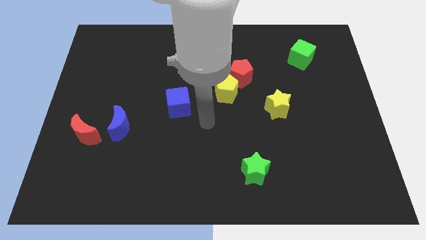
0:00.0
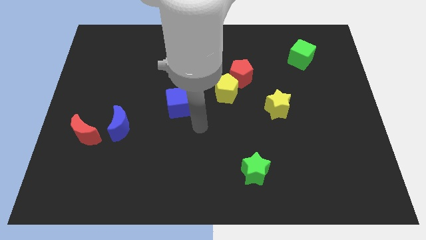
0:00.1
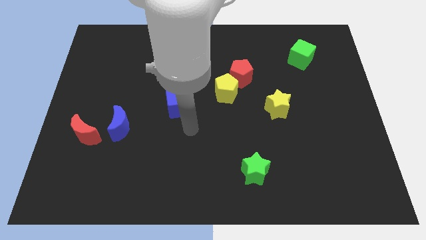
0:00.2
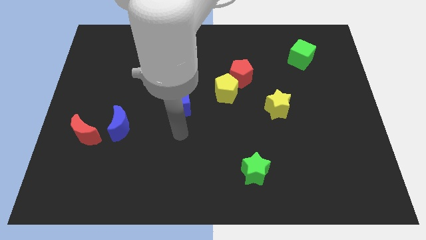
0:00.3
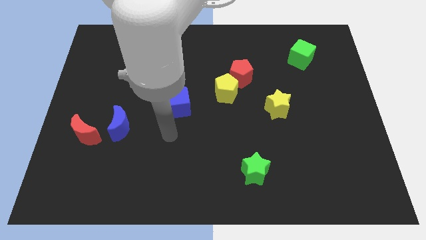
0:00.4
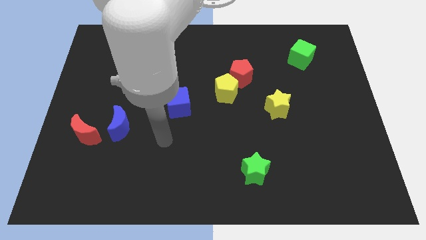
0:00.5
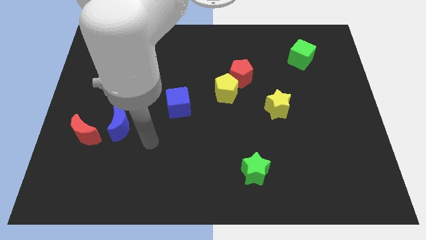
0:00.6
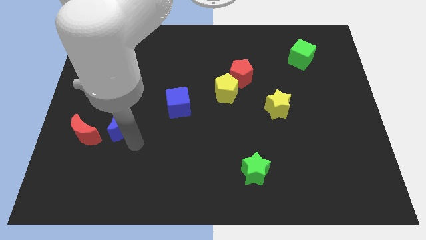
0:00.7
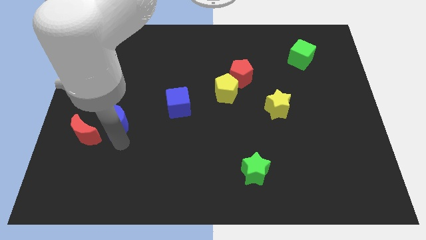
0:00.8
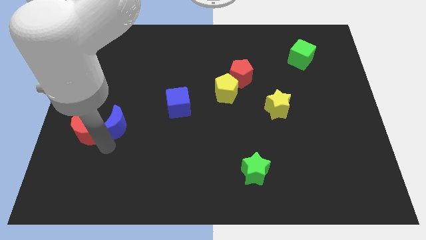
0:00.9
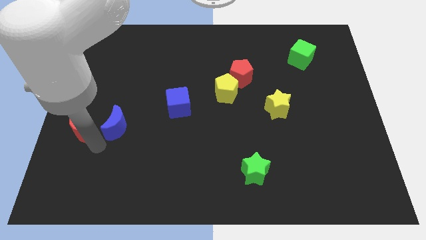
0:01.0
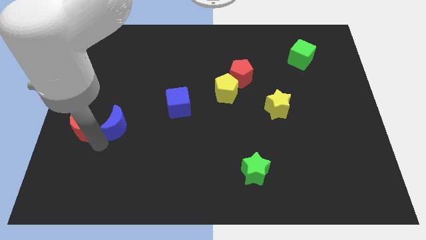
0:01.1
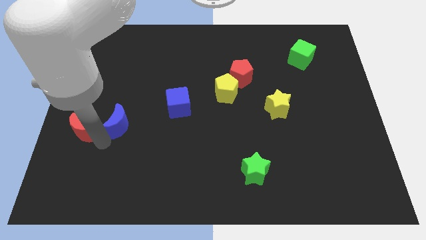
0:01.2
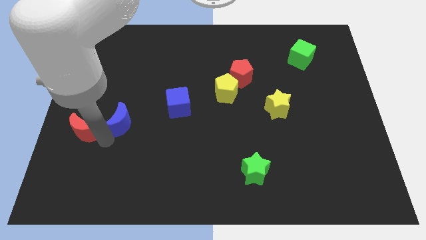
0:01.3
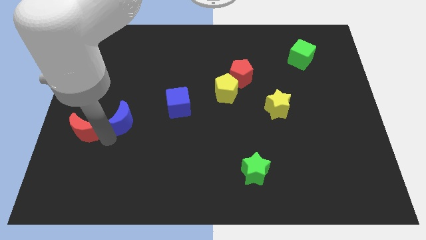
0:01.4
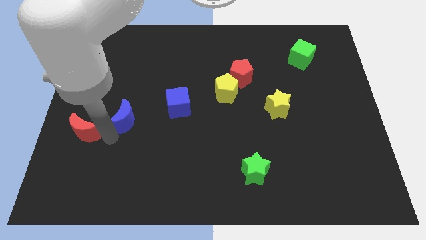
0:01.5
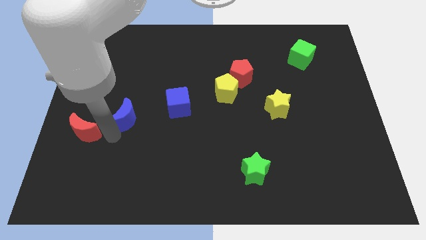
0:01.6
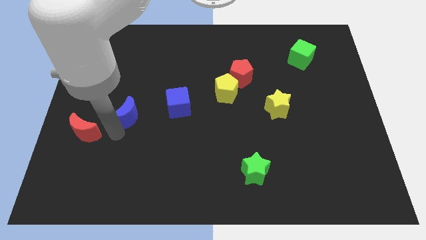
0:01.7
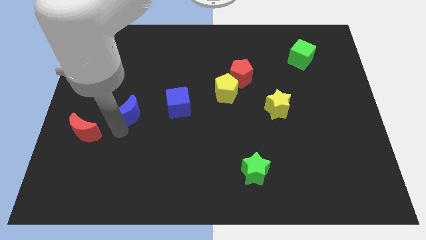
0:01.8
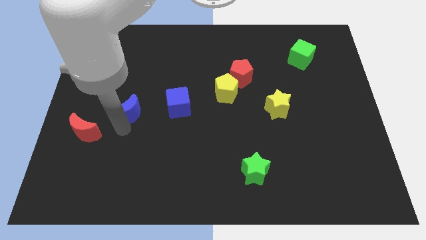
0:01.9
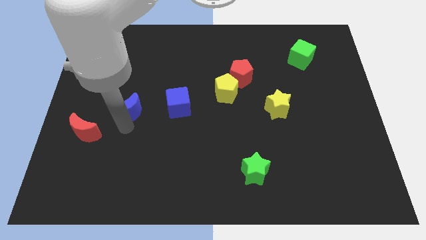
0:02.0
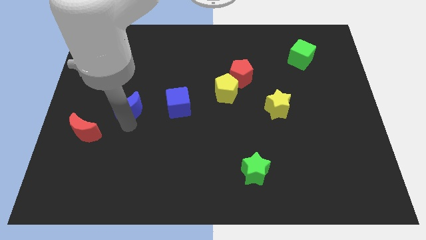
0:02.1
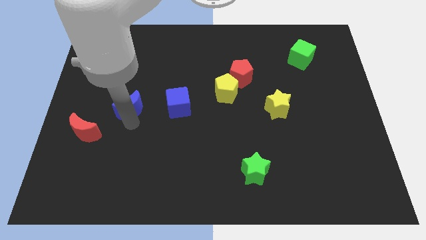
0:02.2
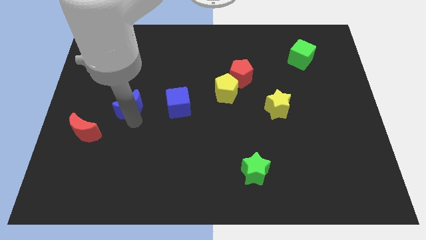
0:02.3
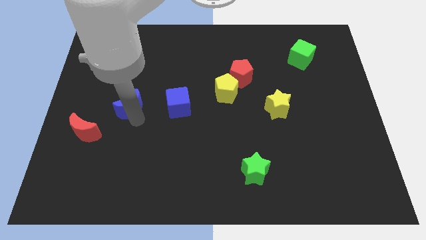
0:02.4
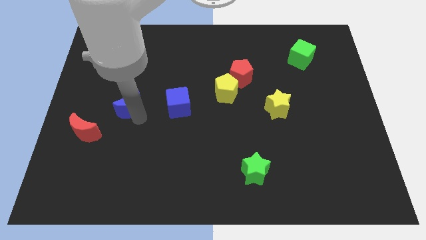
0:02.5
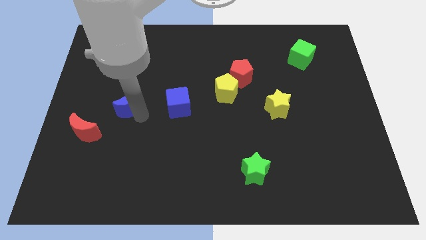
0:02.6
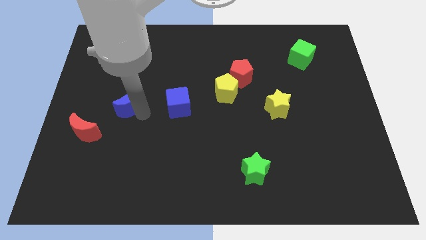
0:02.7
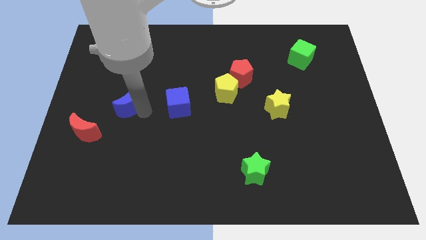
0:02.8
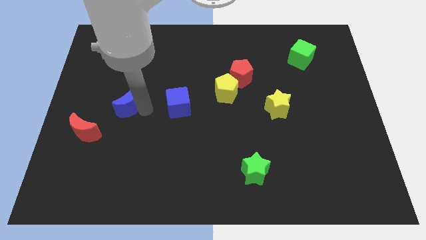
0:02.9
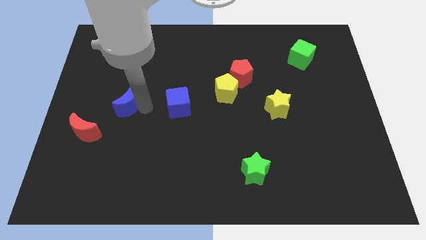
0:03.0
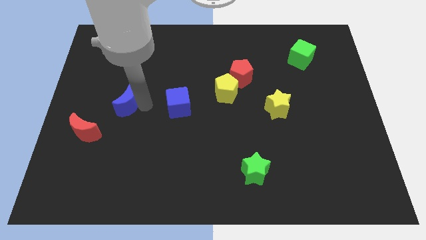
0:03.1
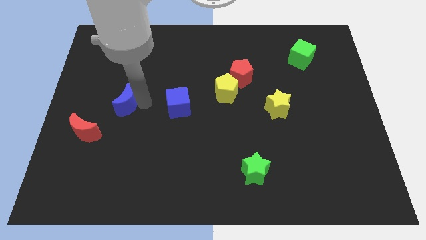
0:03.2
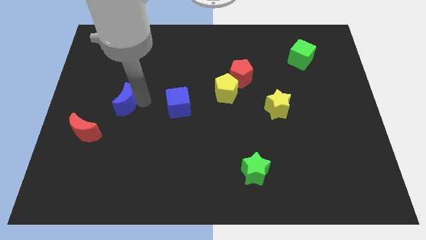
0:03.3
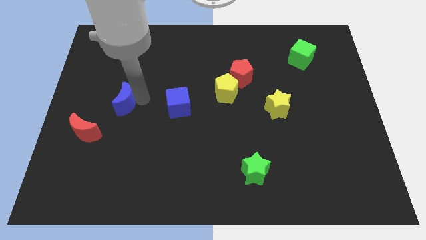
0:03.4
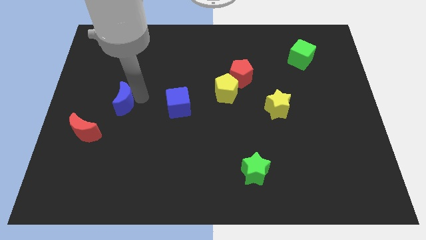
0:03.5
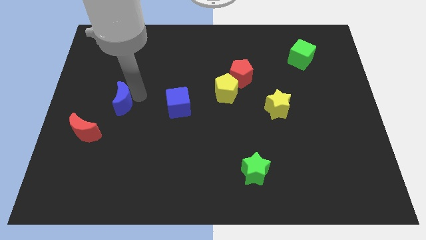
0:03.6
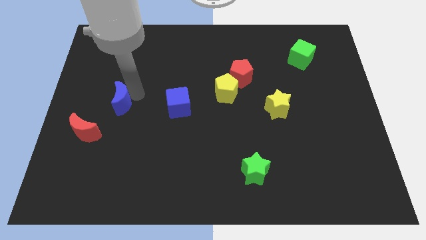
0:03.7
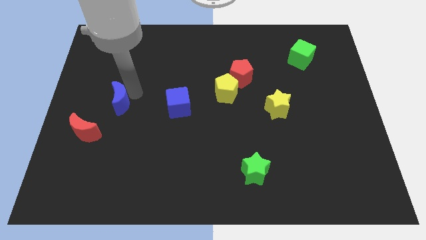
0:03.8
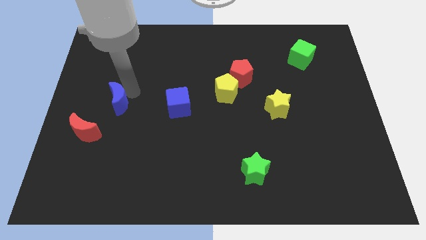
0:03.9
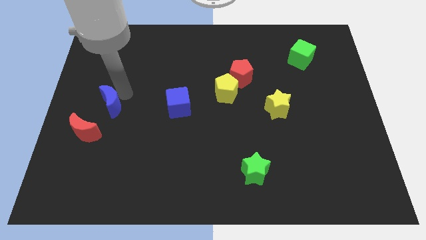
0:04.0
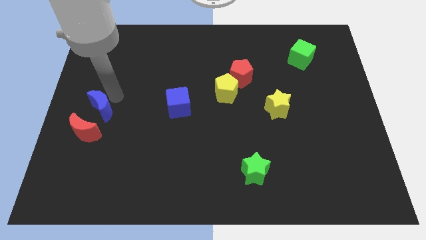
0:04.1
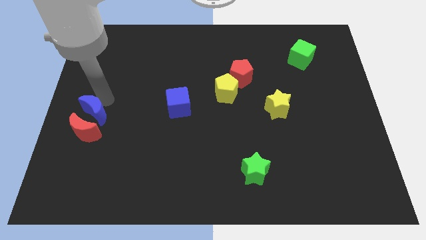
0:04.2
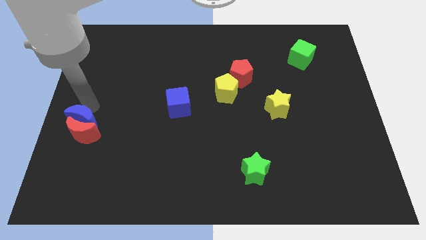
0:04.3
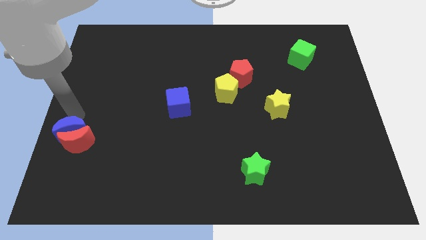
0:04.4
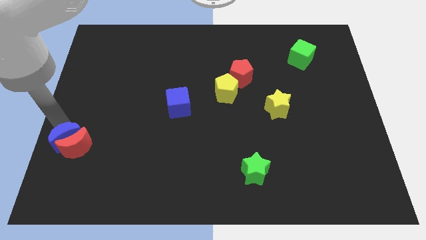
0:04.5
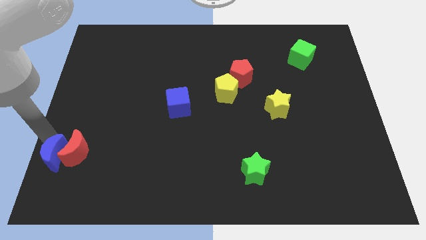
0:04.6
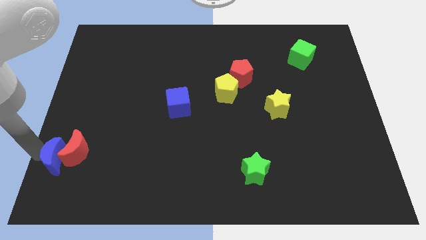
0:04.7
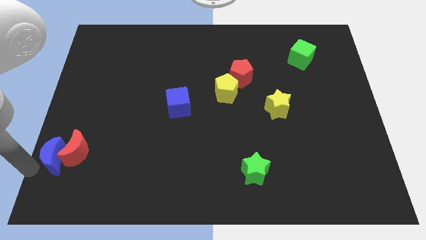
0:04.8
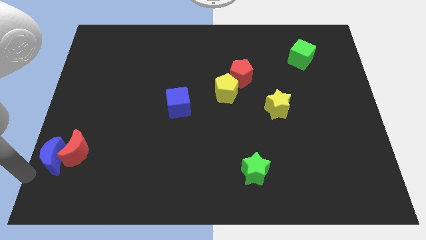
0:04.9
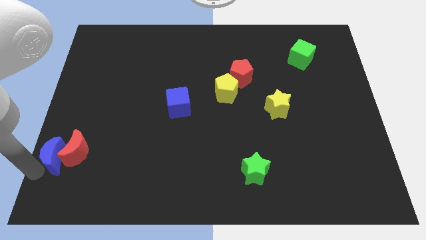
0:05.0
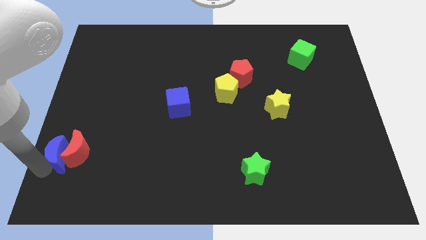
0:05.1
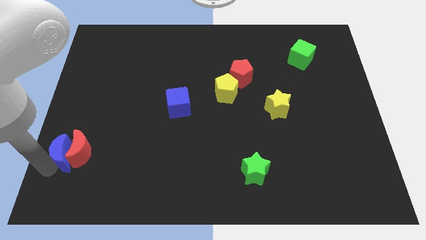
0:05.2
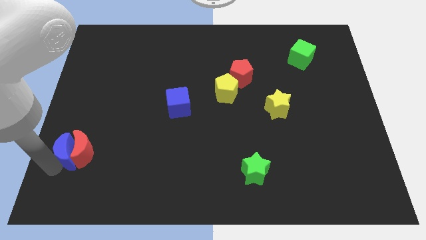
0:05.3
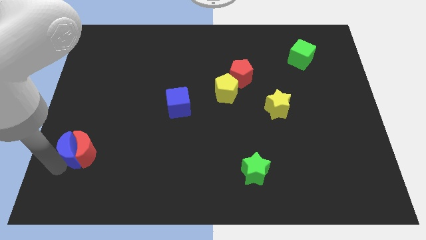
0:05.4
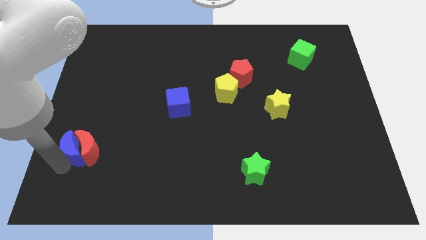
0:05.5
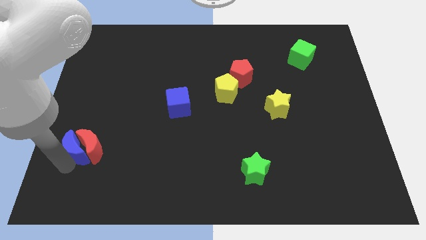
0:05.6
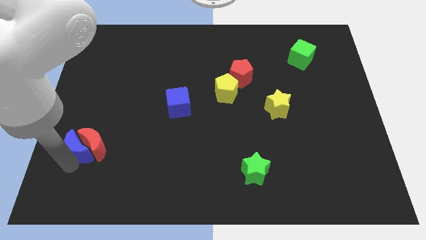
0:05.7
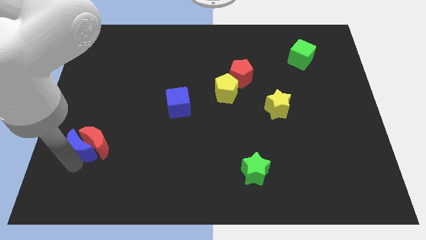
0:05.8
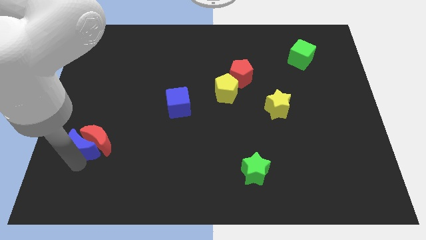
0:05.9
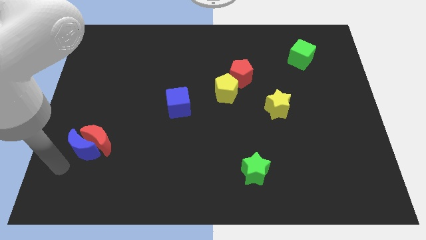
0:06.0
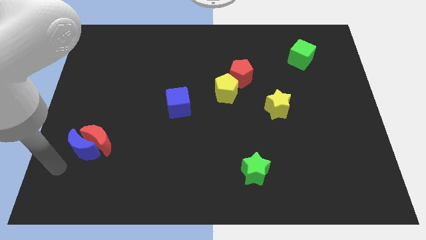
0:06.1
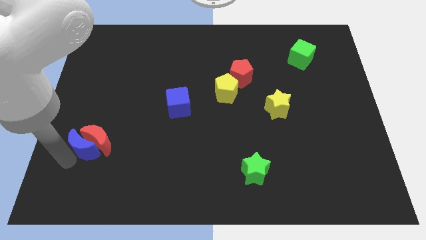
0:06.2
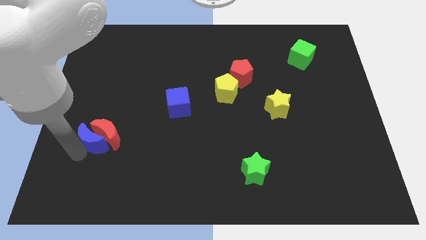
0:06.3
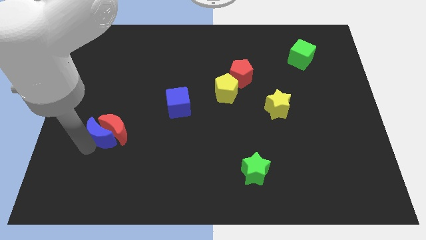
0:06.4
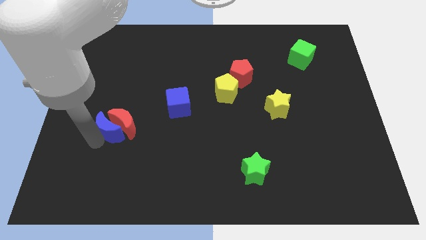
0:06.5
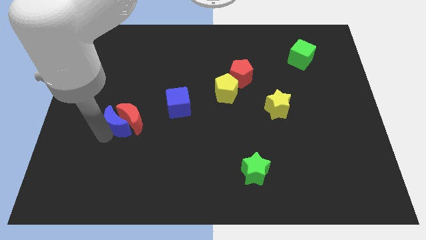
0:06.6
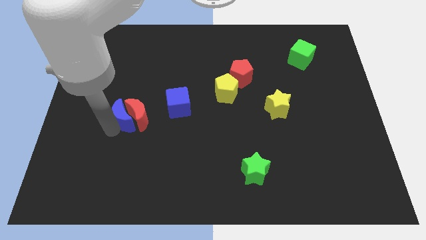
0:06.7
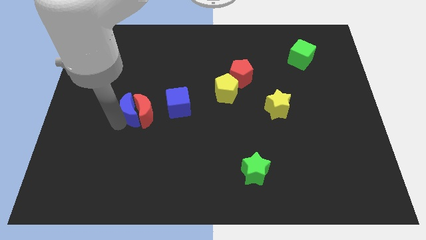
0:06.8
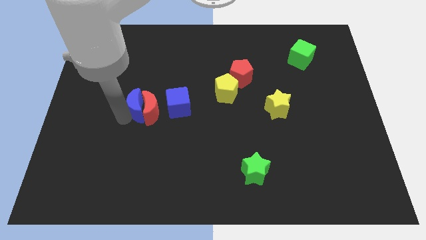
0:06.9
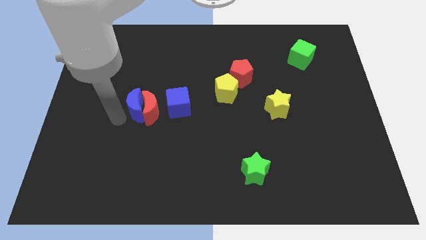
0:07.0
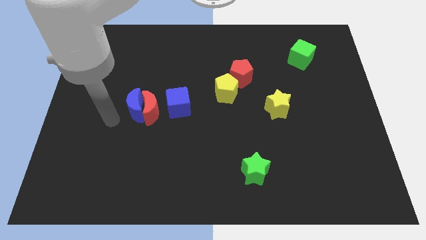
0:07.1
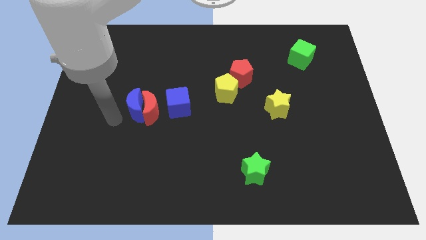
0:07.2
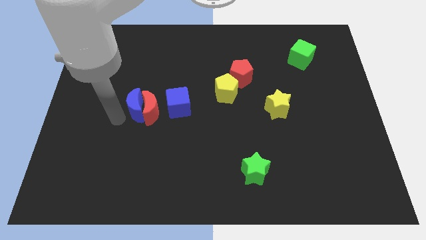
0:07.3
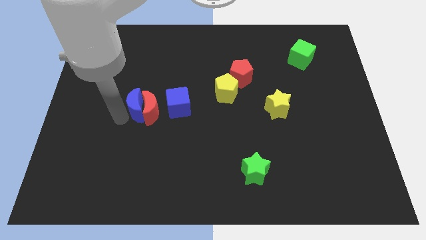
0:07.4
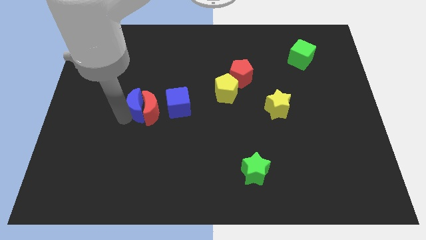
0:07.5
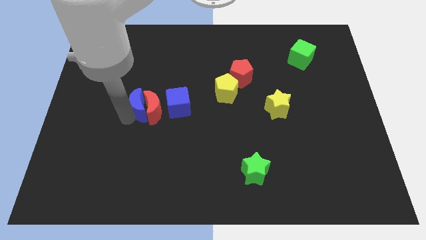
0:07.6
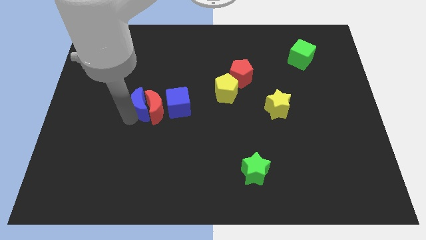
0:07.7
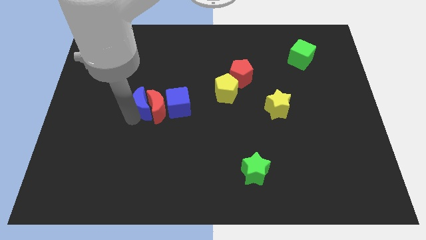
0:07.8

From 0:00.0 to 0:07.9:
slightly move the blue moon up and then to the right

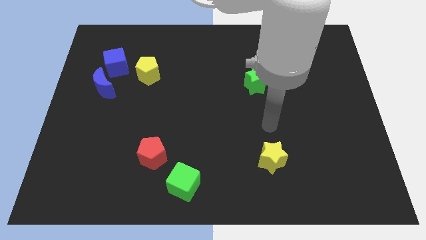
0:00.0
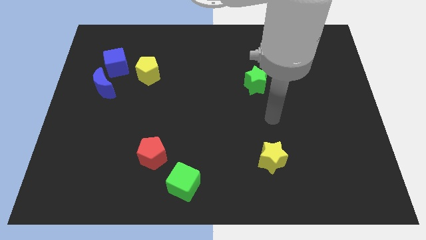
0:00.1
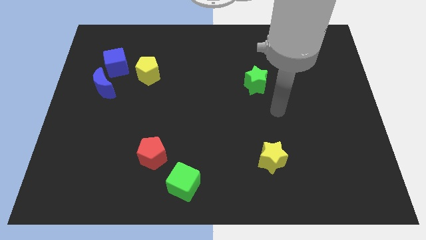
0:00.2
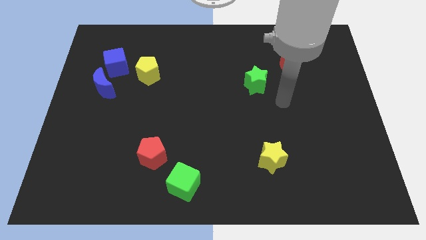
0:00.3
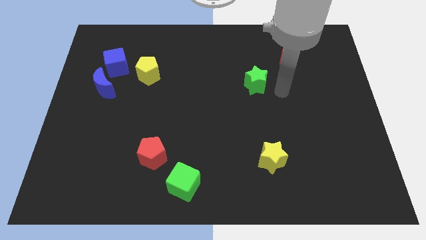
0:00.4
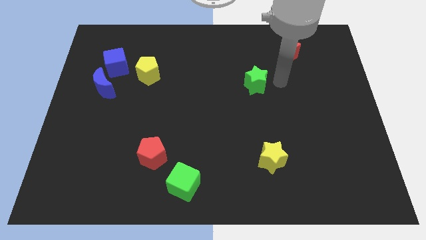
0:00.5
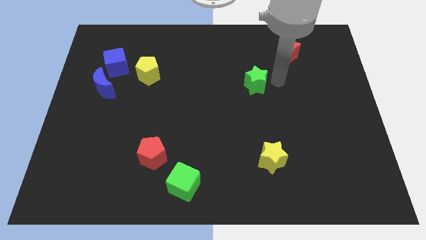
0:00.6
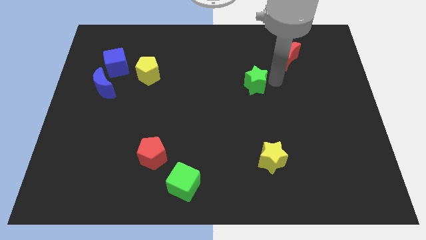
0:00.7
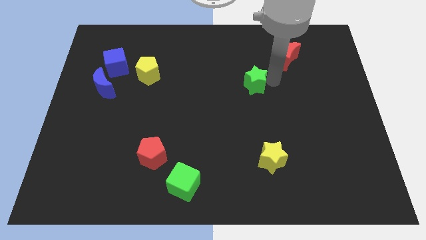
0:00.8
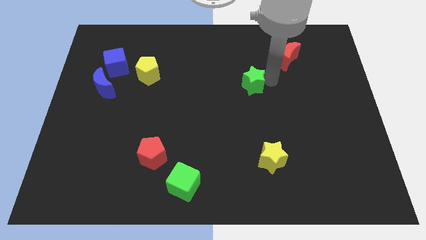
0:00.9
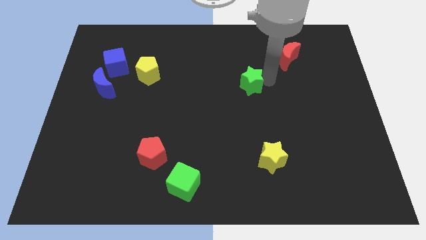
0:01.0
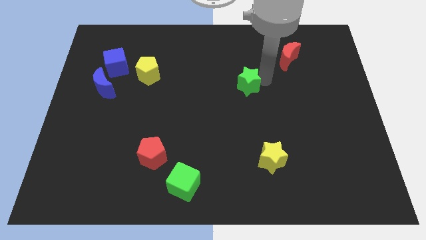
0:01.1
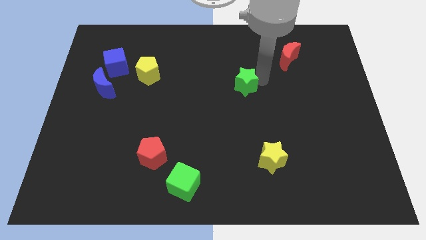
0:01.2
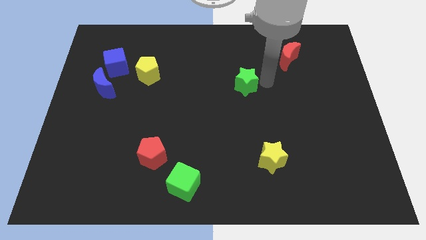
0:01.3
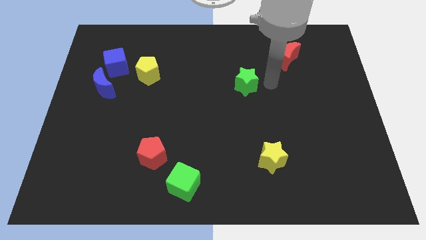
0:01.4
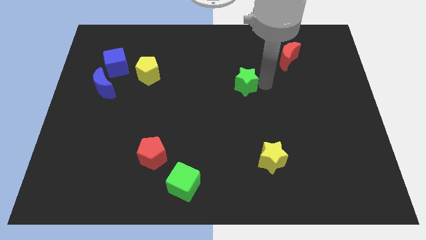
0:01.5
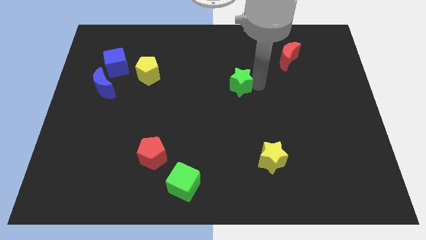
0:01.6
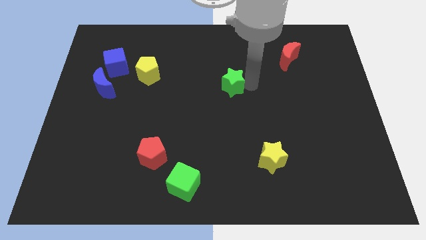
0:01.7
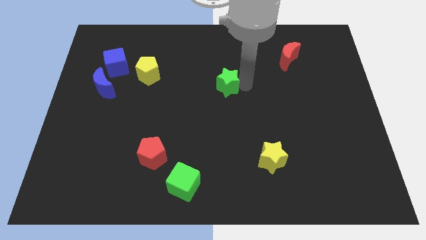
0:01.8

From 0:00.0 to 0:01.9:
move the green star left slightly
